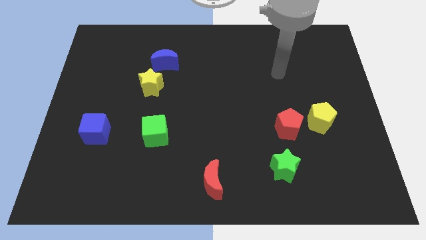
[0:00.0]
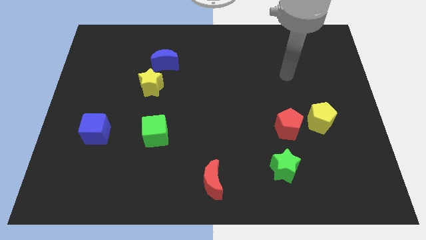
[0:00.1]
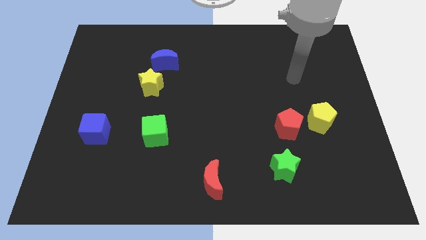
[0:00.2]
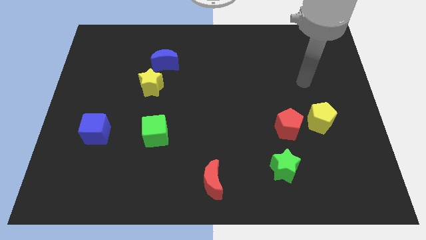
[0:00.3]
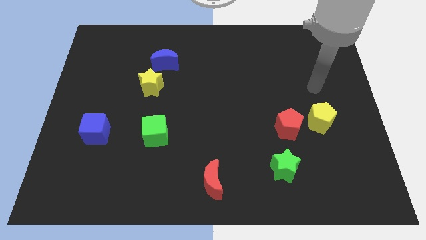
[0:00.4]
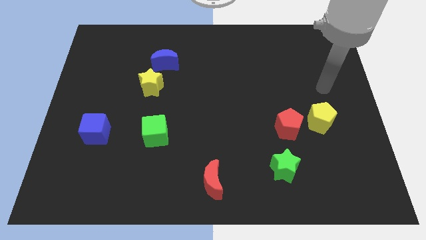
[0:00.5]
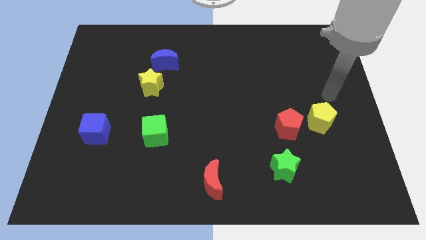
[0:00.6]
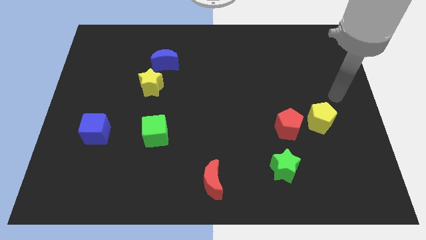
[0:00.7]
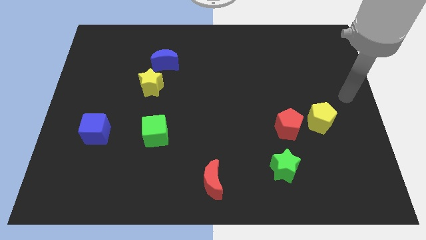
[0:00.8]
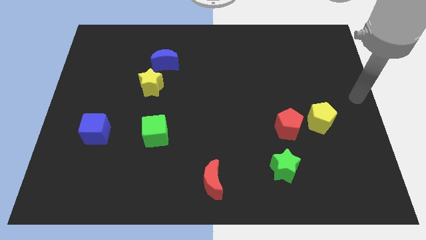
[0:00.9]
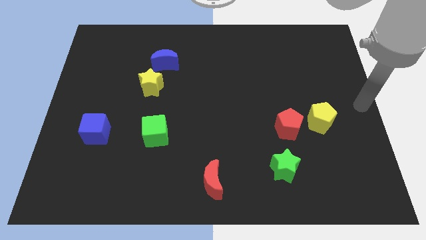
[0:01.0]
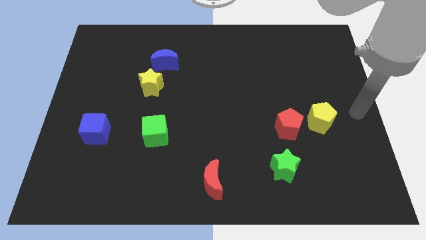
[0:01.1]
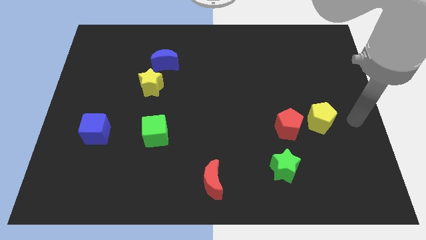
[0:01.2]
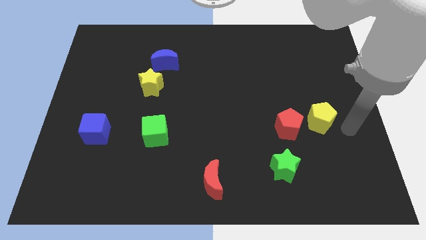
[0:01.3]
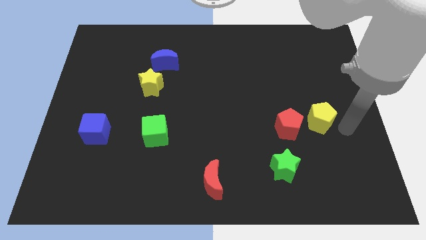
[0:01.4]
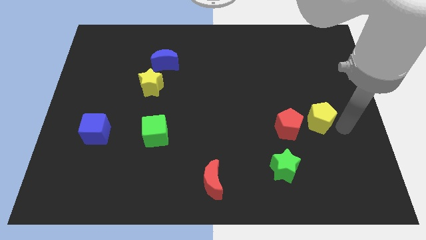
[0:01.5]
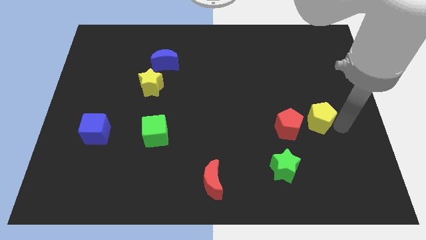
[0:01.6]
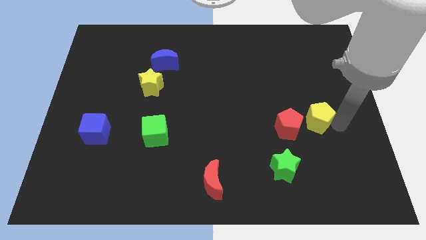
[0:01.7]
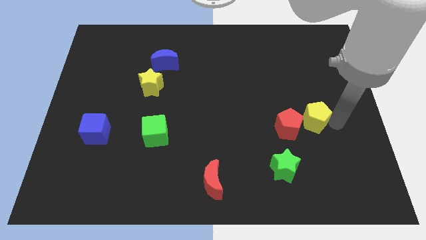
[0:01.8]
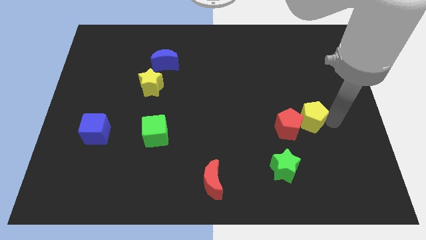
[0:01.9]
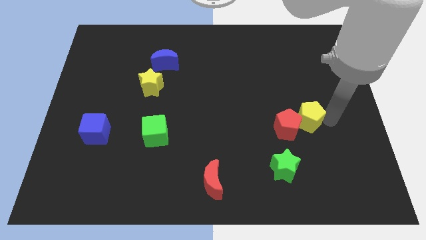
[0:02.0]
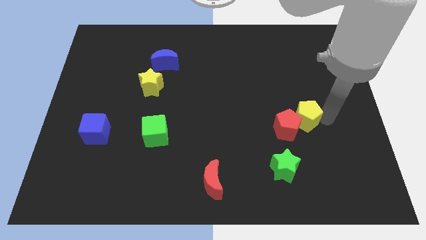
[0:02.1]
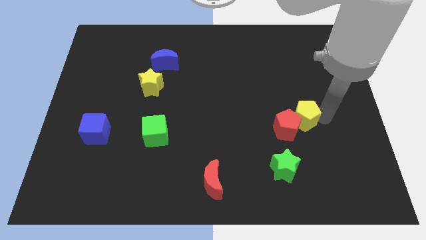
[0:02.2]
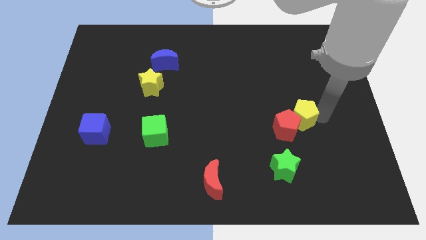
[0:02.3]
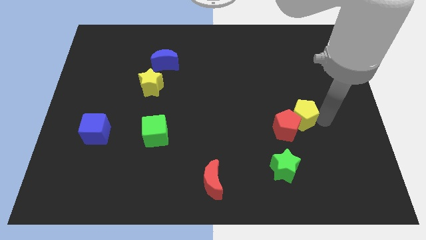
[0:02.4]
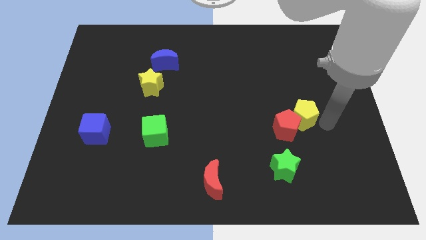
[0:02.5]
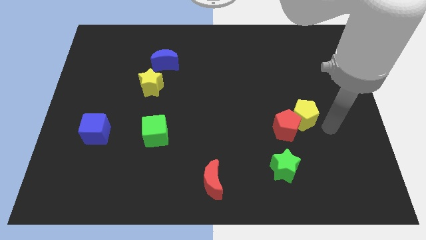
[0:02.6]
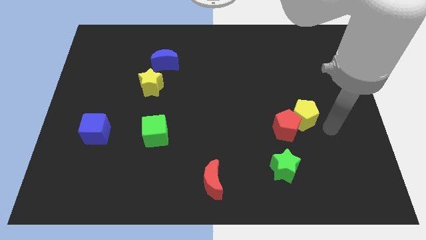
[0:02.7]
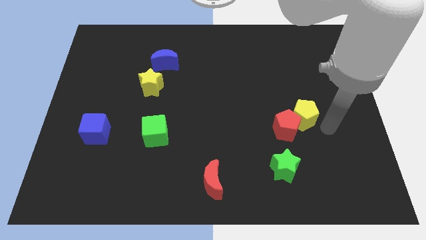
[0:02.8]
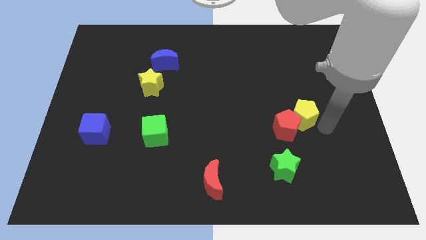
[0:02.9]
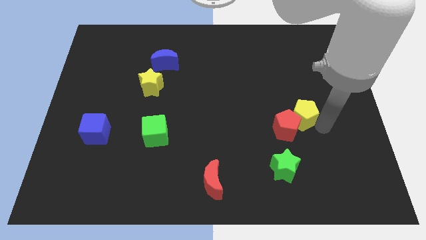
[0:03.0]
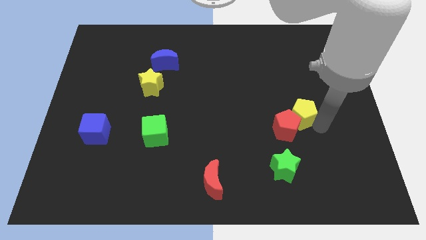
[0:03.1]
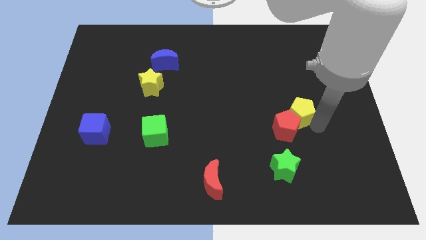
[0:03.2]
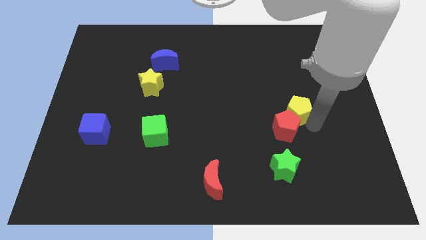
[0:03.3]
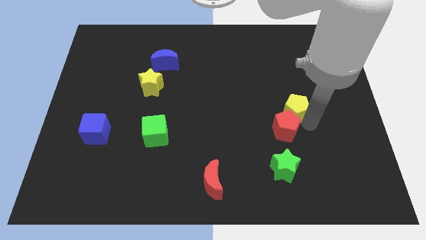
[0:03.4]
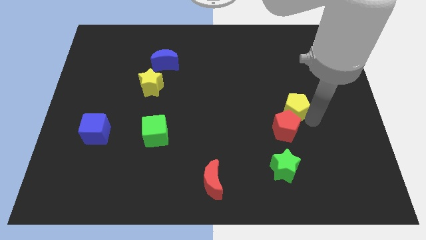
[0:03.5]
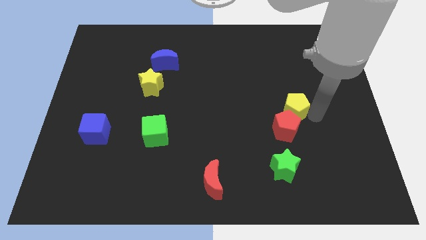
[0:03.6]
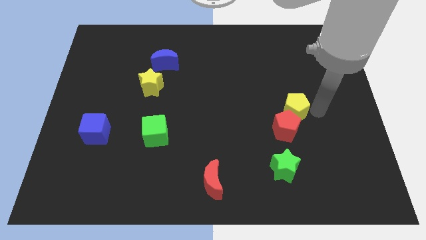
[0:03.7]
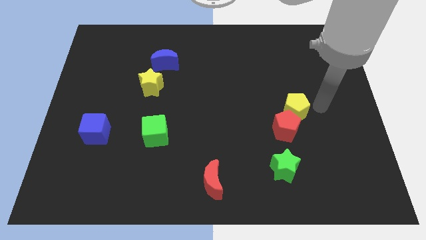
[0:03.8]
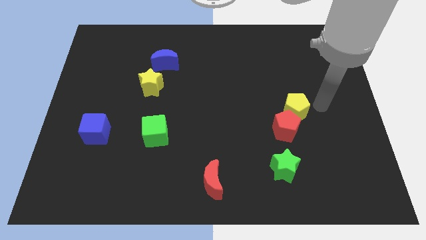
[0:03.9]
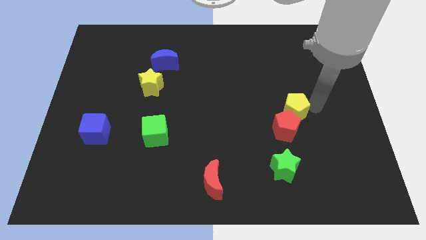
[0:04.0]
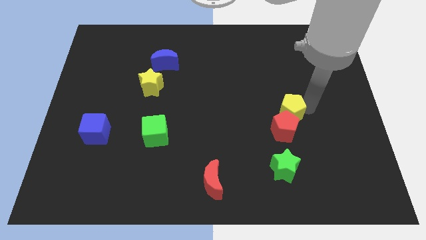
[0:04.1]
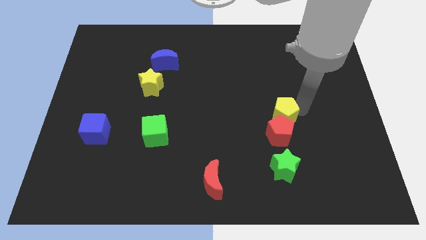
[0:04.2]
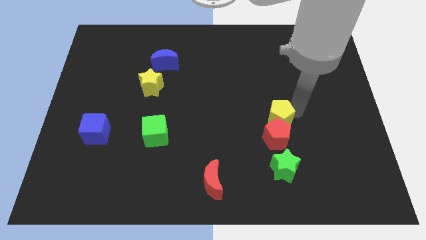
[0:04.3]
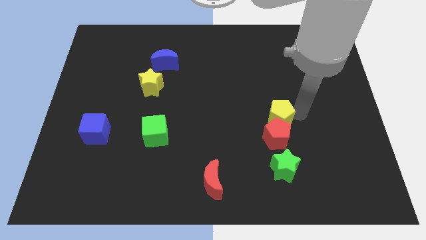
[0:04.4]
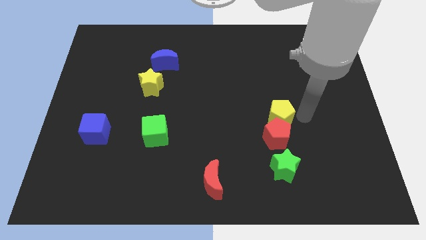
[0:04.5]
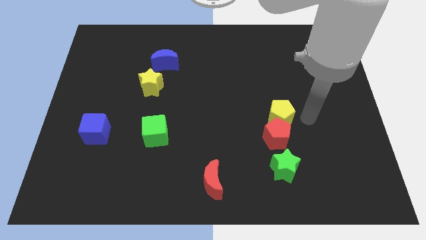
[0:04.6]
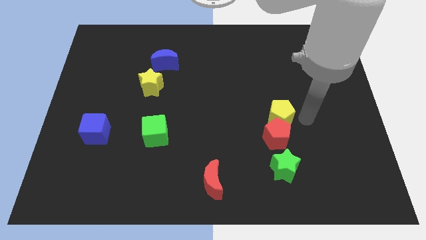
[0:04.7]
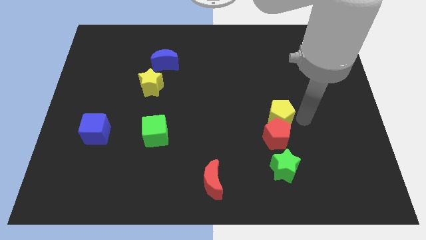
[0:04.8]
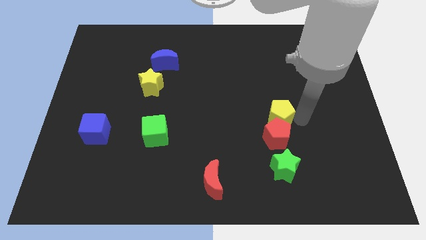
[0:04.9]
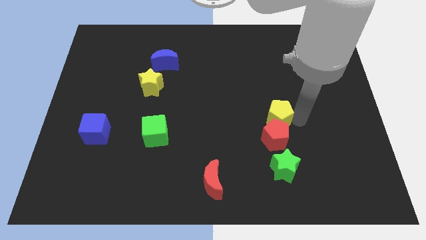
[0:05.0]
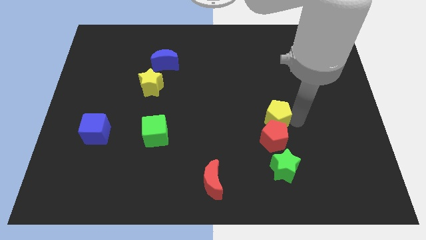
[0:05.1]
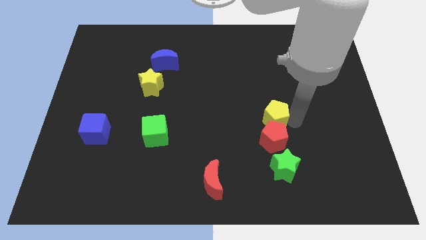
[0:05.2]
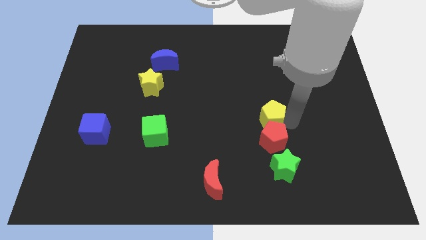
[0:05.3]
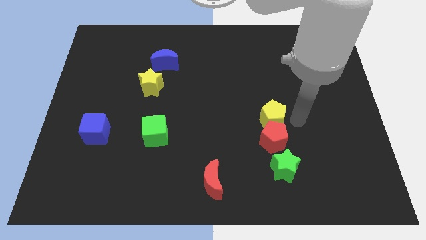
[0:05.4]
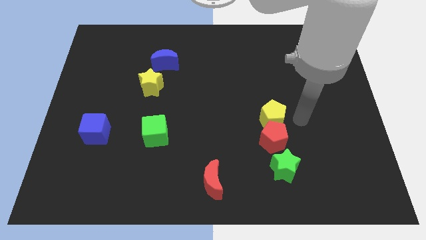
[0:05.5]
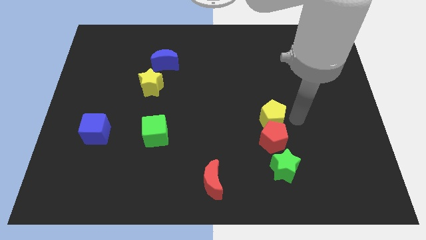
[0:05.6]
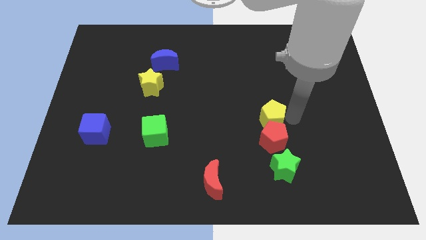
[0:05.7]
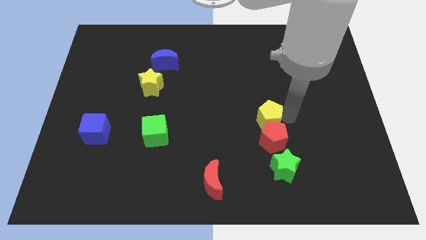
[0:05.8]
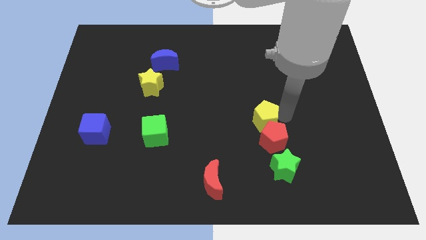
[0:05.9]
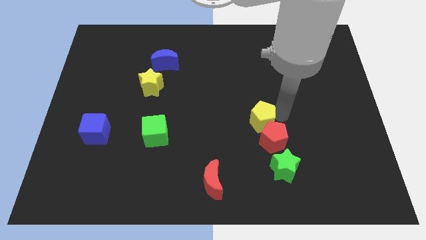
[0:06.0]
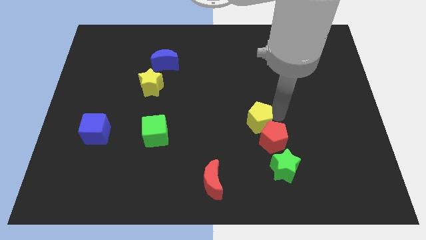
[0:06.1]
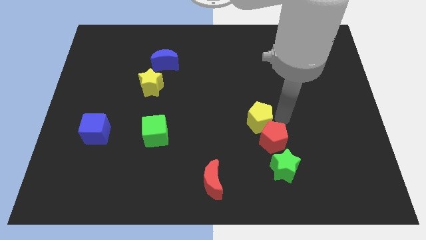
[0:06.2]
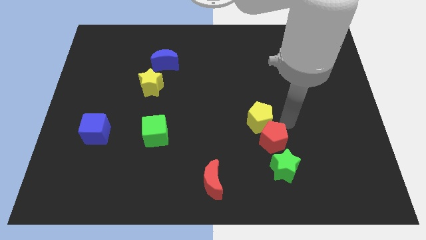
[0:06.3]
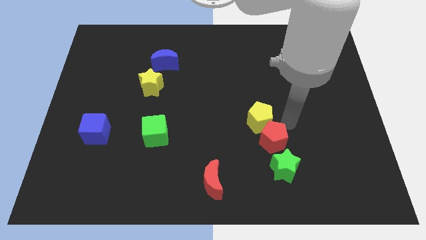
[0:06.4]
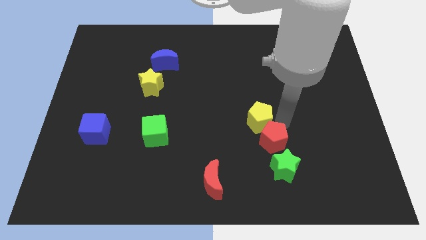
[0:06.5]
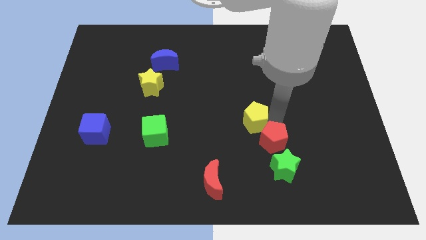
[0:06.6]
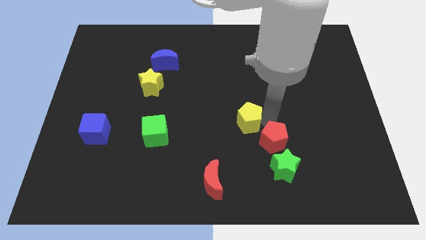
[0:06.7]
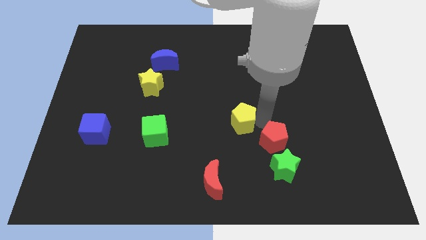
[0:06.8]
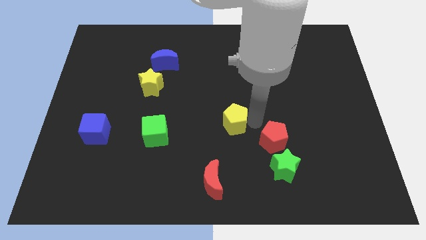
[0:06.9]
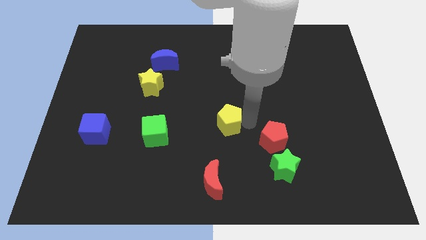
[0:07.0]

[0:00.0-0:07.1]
push the yellow pentagon left

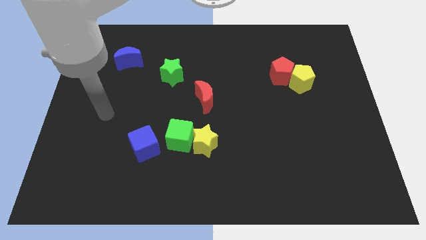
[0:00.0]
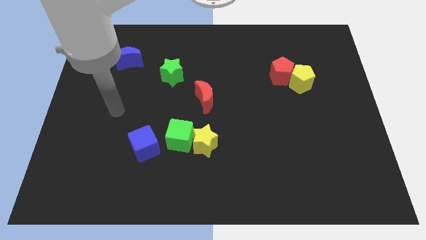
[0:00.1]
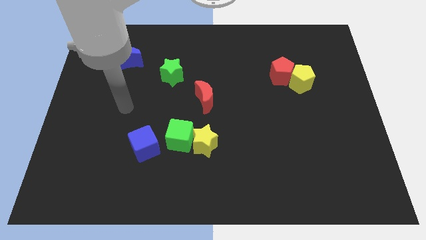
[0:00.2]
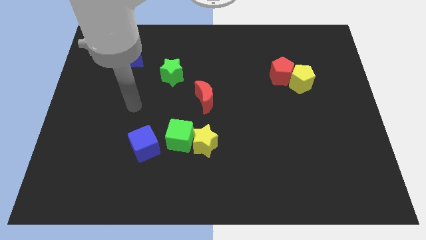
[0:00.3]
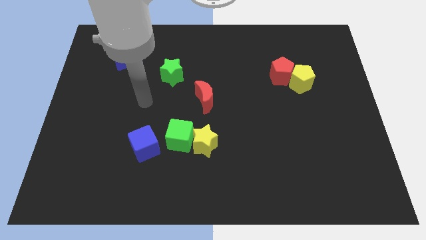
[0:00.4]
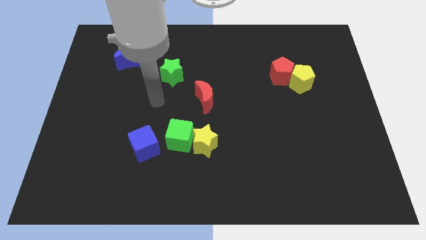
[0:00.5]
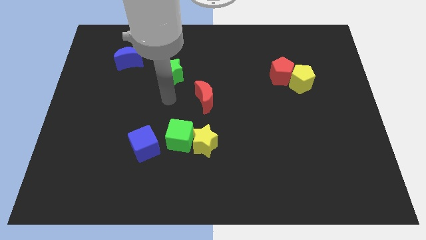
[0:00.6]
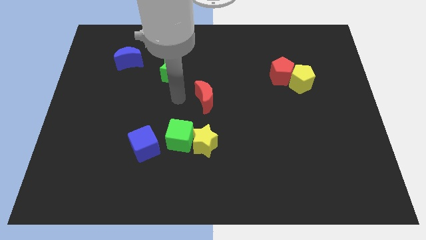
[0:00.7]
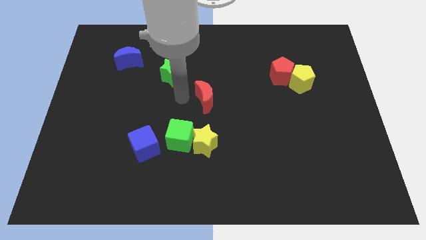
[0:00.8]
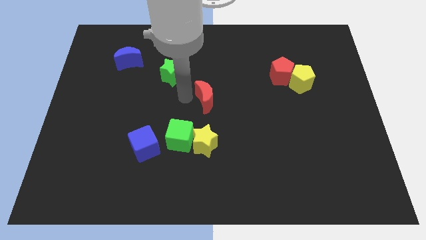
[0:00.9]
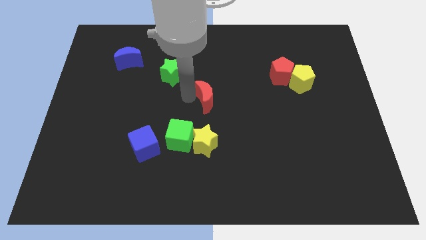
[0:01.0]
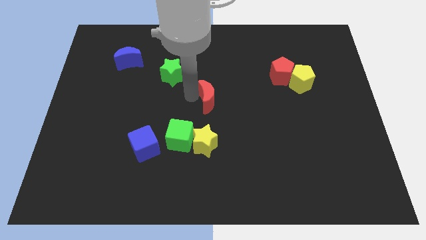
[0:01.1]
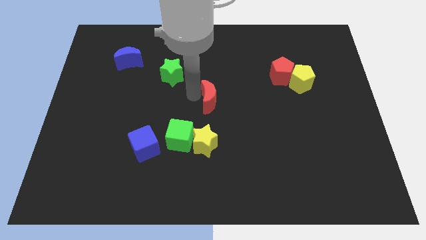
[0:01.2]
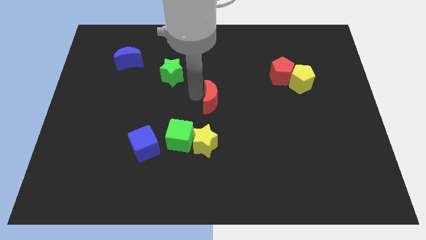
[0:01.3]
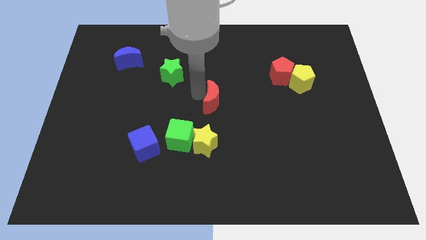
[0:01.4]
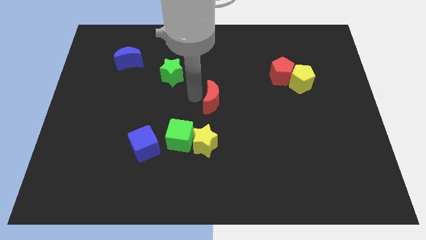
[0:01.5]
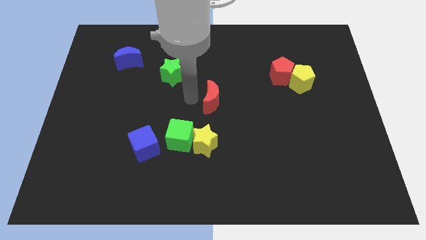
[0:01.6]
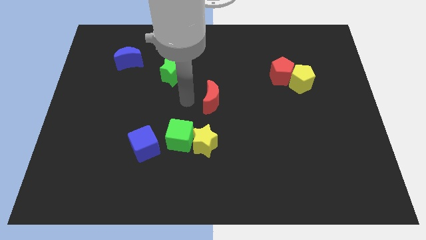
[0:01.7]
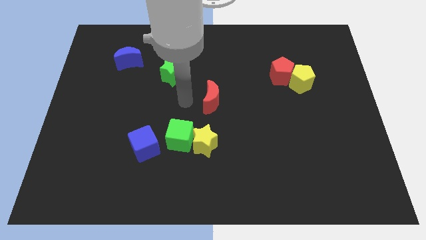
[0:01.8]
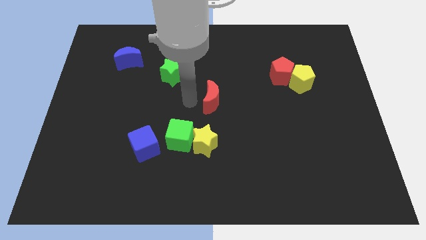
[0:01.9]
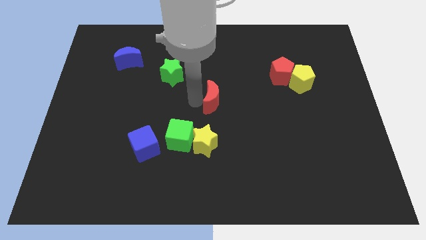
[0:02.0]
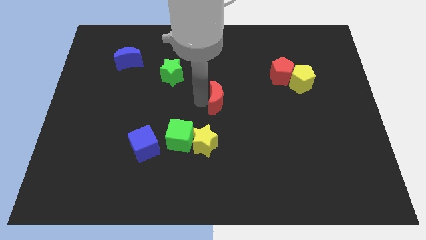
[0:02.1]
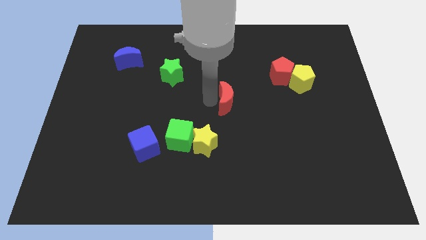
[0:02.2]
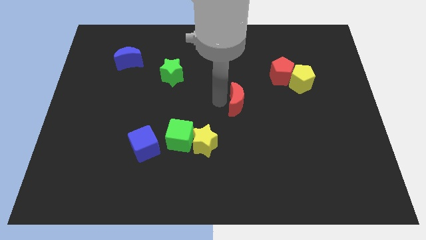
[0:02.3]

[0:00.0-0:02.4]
push the red moon to the right slightly
